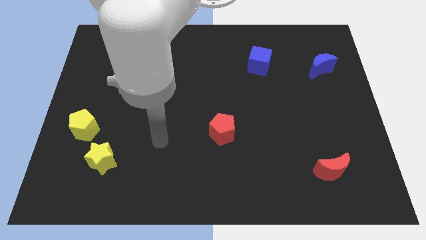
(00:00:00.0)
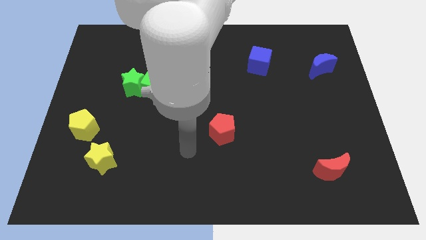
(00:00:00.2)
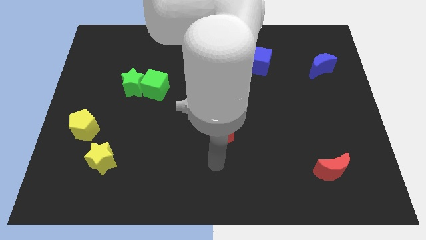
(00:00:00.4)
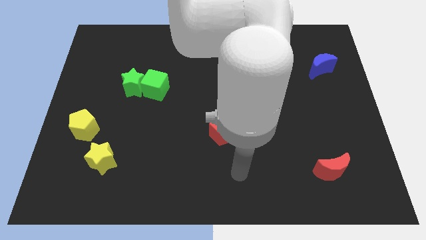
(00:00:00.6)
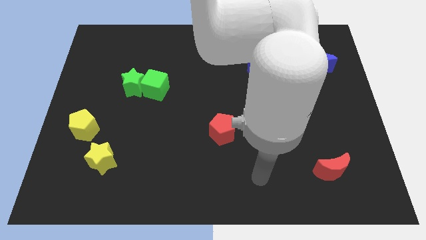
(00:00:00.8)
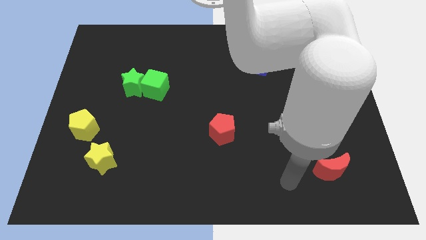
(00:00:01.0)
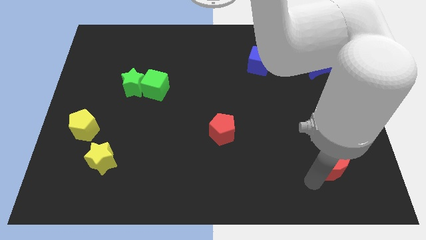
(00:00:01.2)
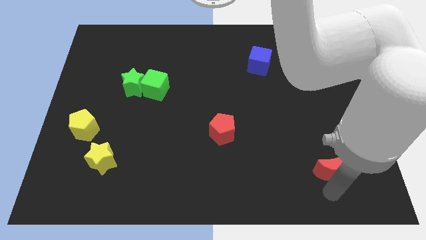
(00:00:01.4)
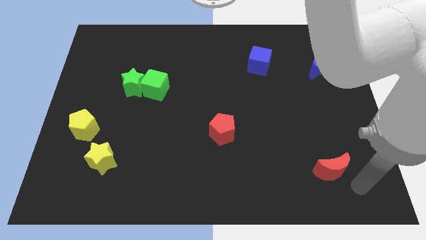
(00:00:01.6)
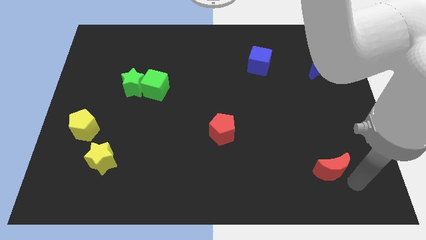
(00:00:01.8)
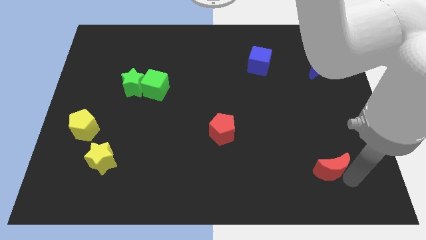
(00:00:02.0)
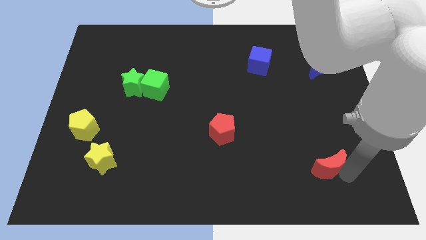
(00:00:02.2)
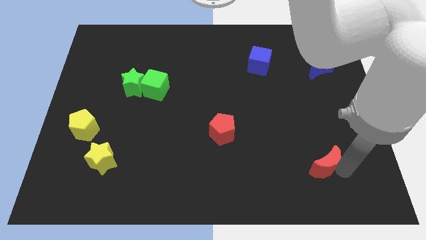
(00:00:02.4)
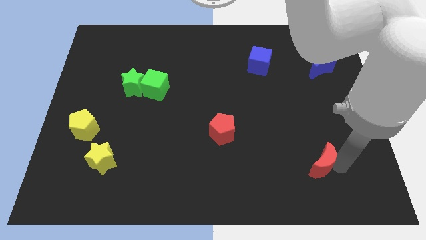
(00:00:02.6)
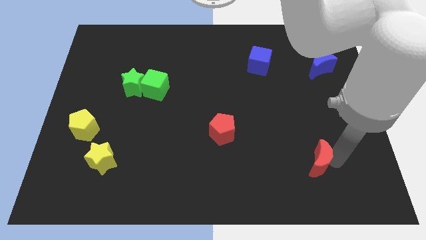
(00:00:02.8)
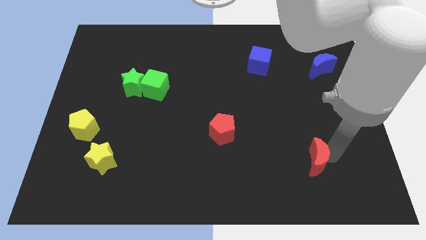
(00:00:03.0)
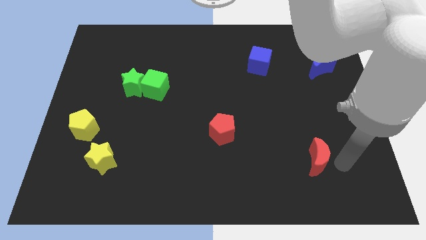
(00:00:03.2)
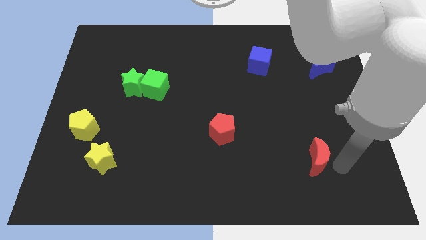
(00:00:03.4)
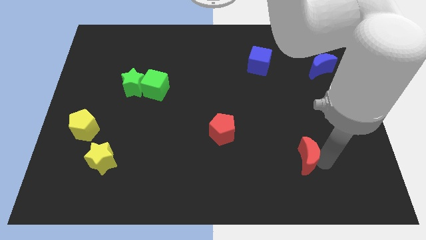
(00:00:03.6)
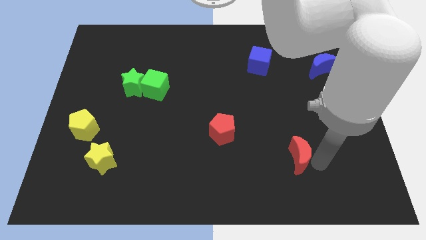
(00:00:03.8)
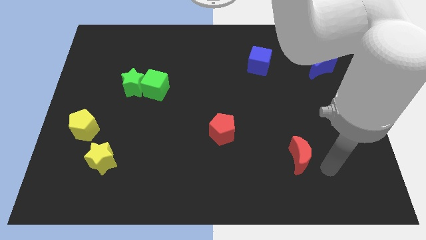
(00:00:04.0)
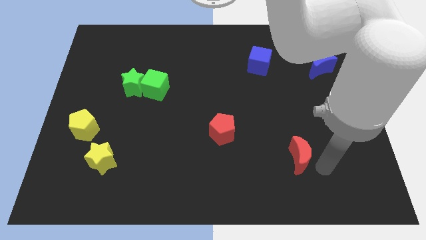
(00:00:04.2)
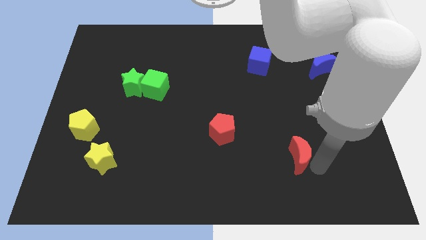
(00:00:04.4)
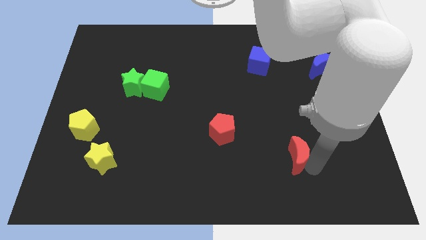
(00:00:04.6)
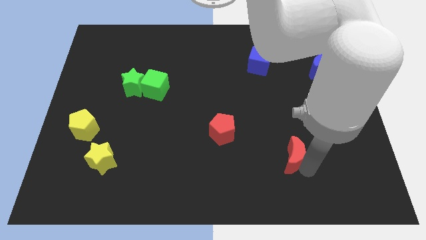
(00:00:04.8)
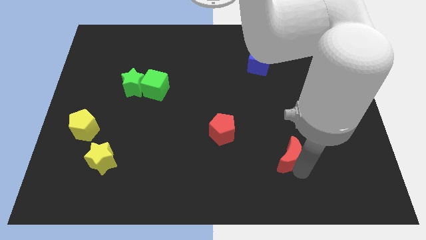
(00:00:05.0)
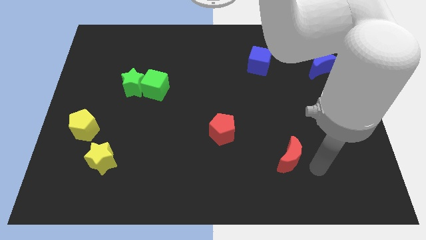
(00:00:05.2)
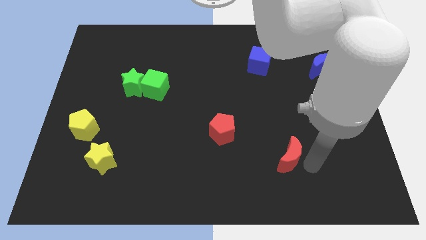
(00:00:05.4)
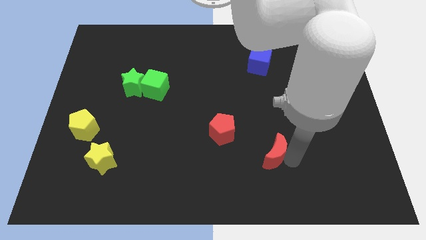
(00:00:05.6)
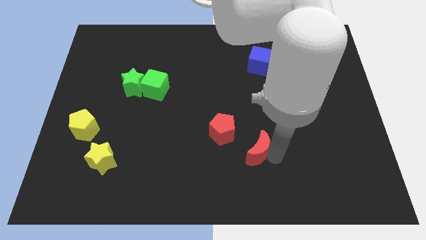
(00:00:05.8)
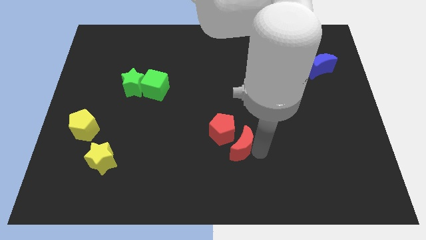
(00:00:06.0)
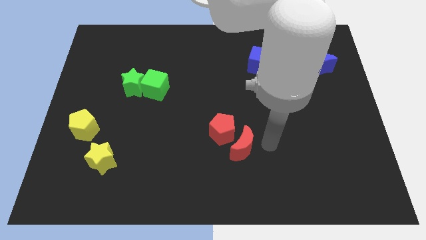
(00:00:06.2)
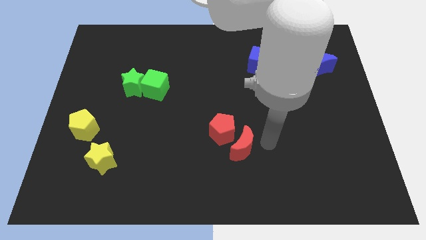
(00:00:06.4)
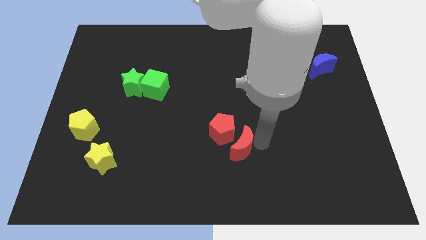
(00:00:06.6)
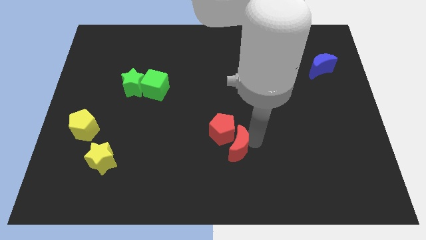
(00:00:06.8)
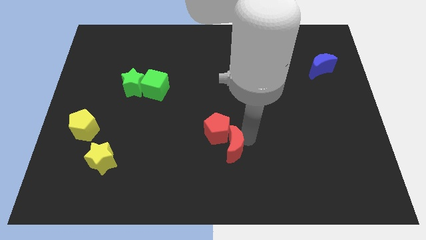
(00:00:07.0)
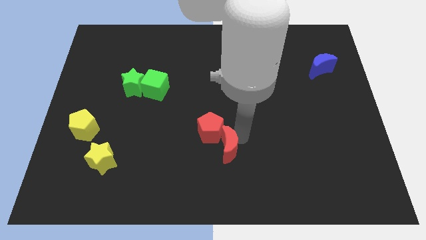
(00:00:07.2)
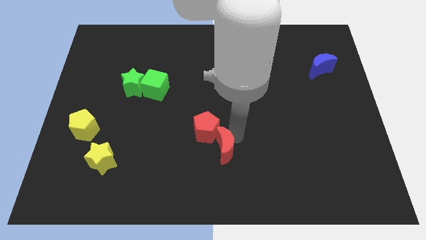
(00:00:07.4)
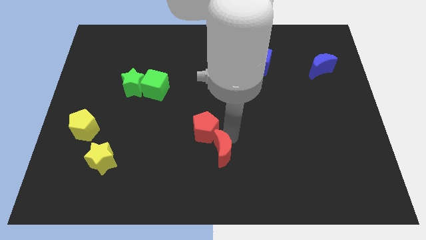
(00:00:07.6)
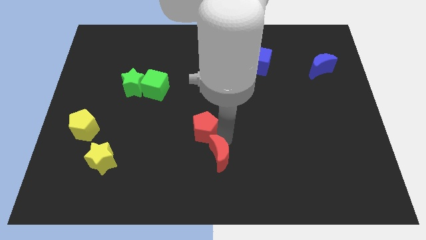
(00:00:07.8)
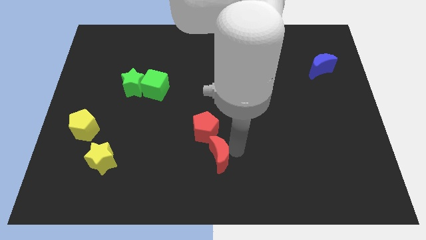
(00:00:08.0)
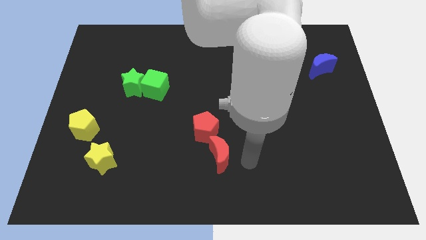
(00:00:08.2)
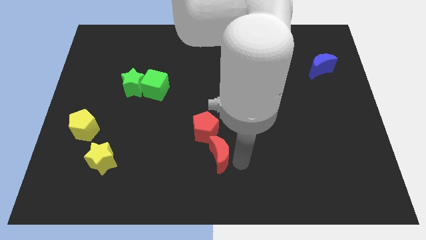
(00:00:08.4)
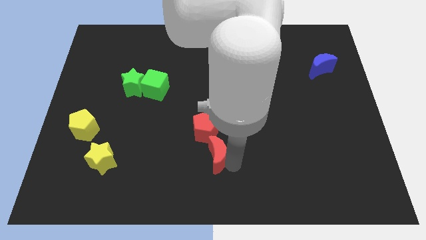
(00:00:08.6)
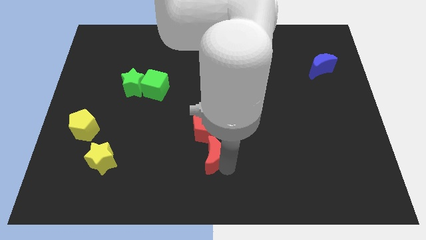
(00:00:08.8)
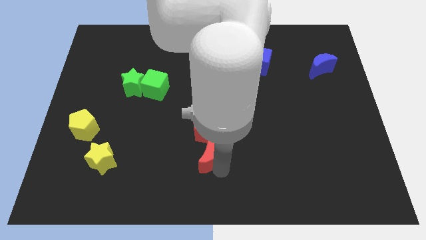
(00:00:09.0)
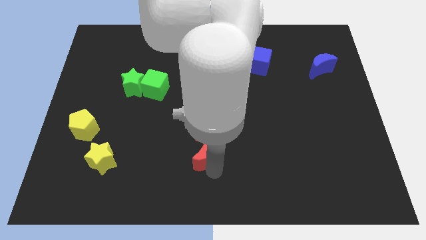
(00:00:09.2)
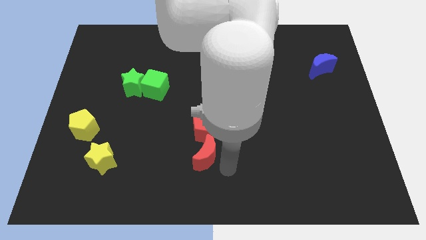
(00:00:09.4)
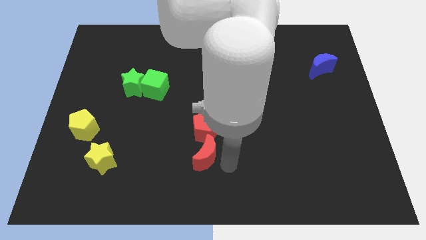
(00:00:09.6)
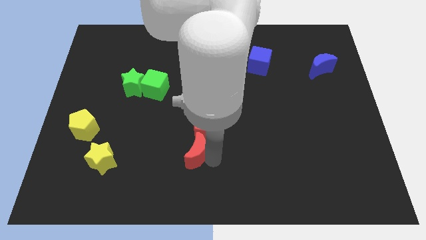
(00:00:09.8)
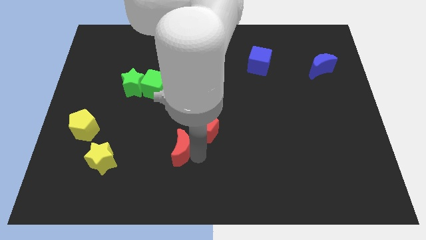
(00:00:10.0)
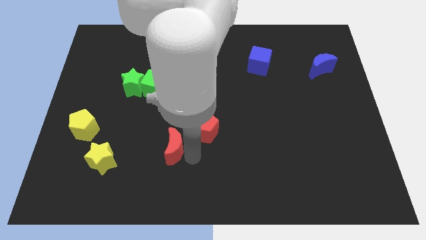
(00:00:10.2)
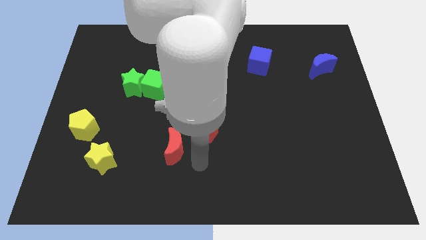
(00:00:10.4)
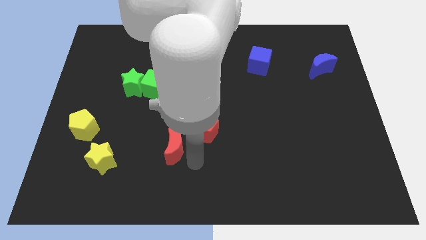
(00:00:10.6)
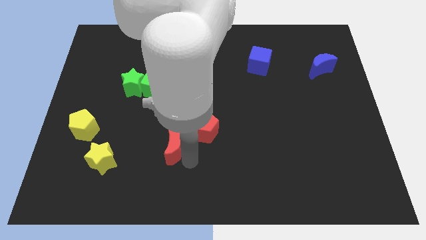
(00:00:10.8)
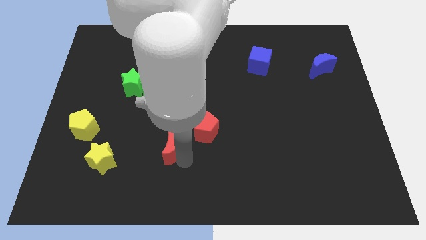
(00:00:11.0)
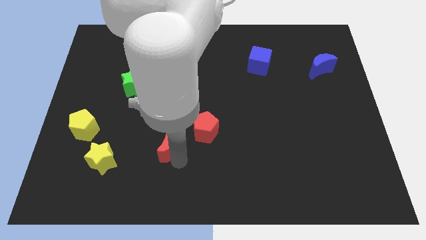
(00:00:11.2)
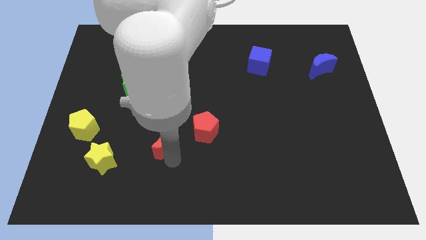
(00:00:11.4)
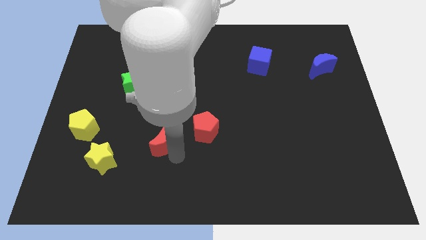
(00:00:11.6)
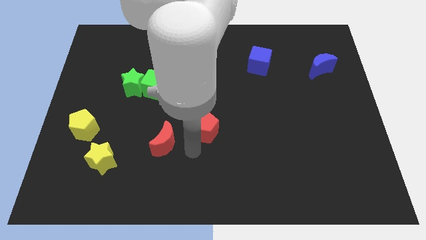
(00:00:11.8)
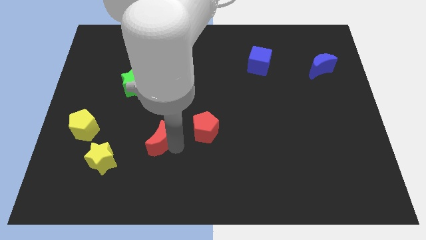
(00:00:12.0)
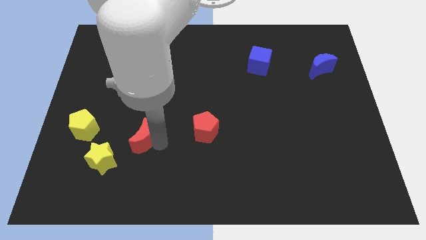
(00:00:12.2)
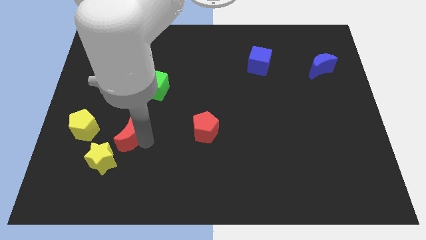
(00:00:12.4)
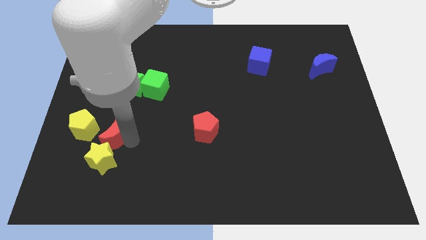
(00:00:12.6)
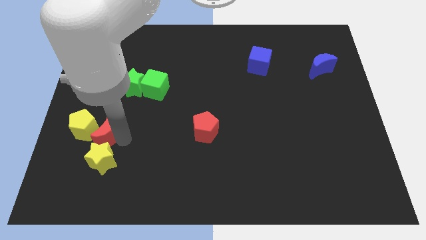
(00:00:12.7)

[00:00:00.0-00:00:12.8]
push the red moon close to the yellow pentagon

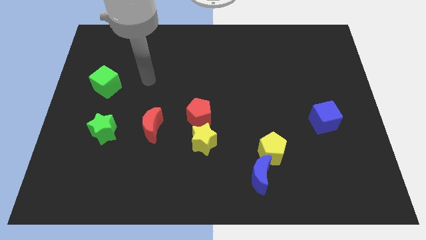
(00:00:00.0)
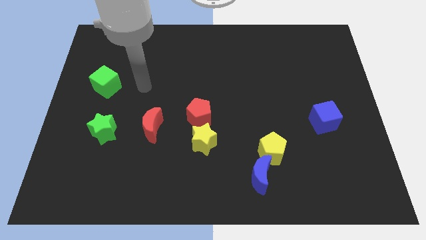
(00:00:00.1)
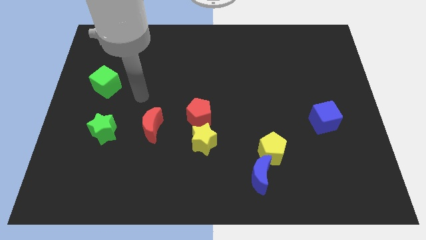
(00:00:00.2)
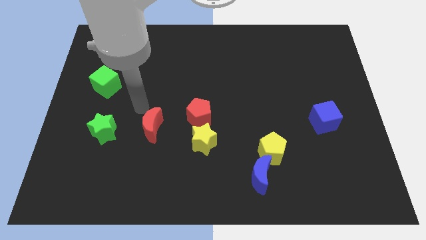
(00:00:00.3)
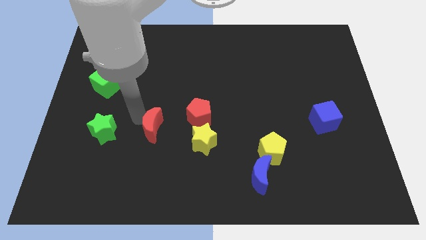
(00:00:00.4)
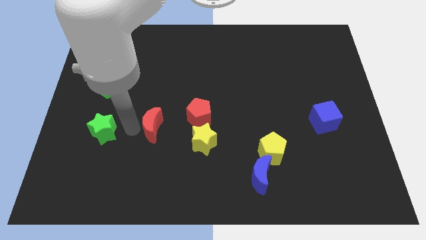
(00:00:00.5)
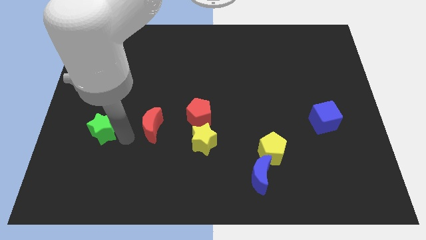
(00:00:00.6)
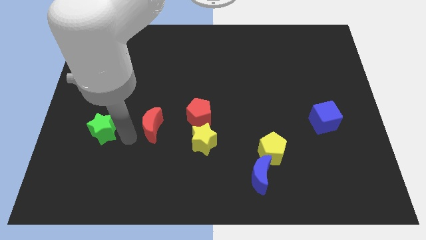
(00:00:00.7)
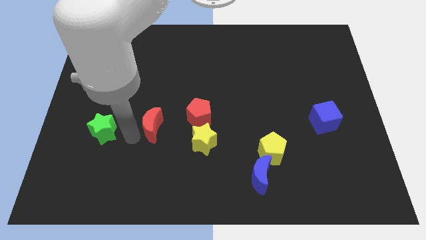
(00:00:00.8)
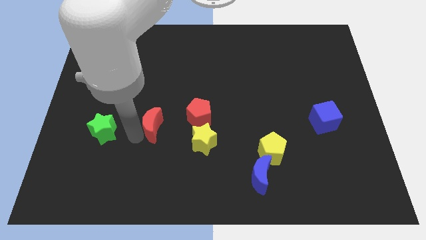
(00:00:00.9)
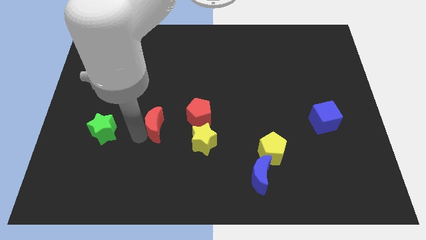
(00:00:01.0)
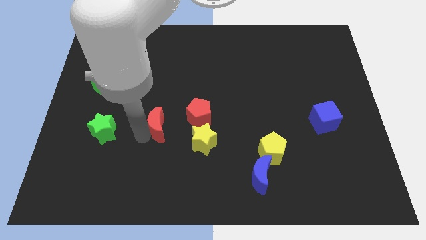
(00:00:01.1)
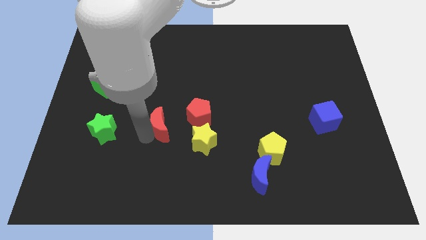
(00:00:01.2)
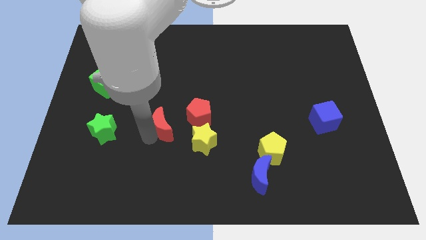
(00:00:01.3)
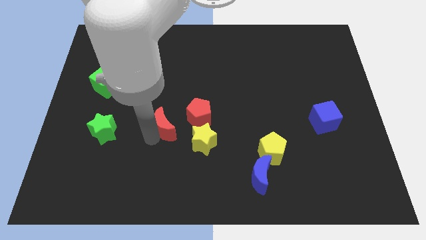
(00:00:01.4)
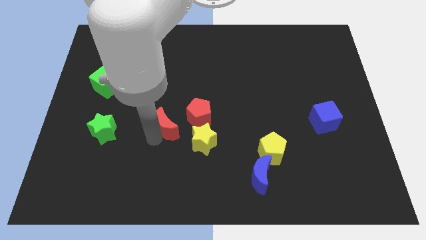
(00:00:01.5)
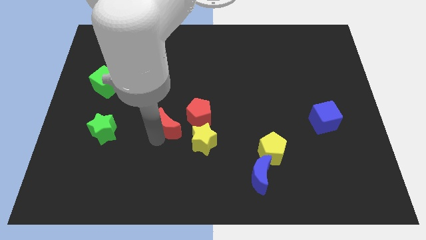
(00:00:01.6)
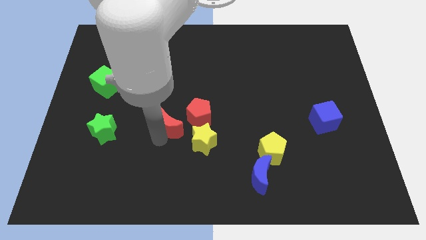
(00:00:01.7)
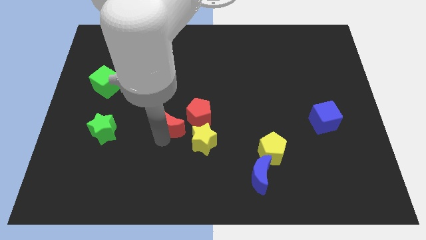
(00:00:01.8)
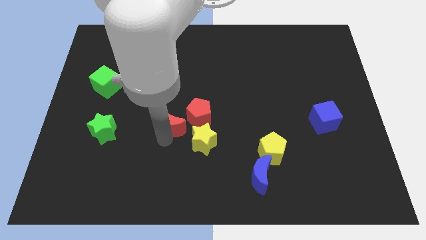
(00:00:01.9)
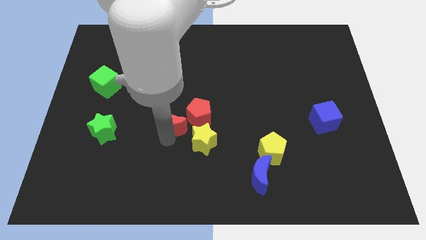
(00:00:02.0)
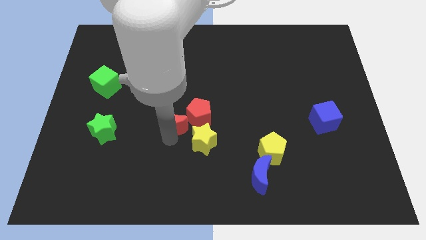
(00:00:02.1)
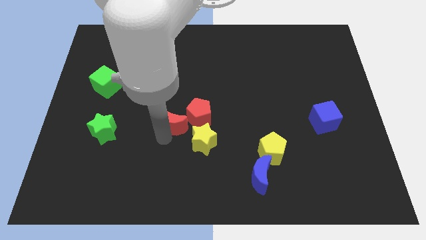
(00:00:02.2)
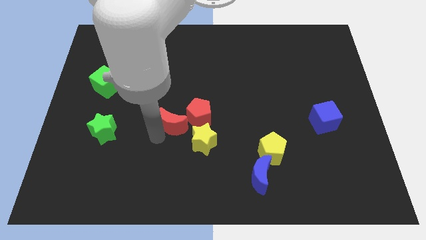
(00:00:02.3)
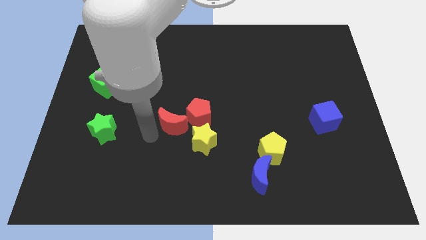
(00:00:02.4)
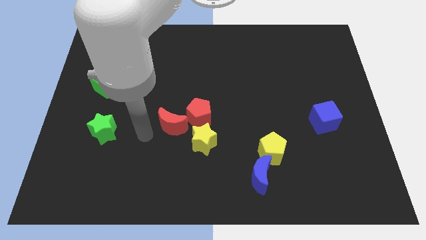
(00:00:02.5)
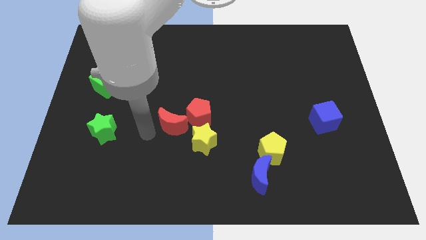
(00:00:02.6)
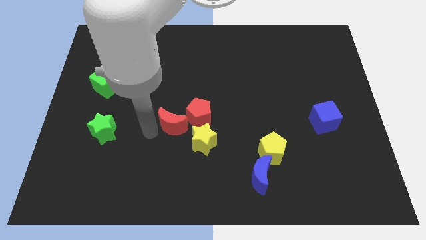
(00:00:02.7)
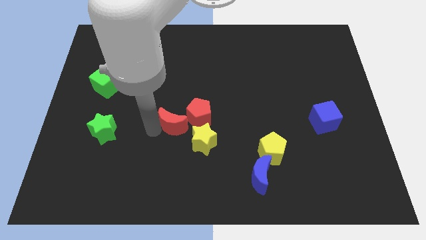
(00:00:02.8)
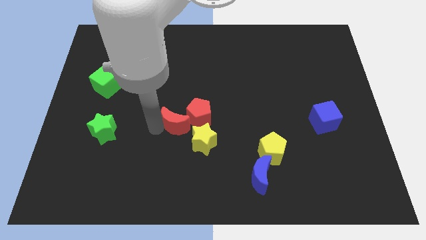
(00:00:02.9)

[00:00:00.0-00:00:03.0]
push the red moon to the red pentagon
